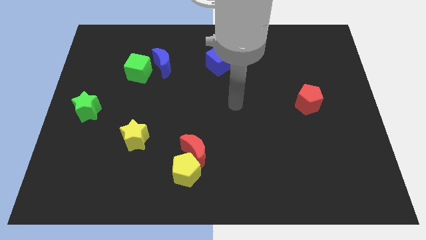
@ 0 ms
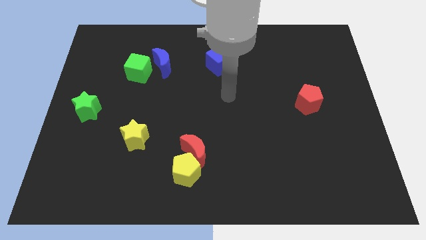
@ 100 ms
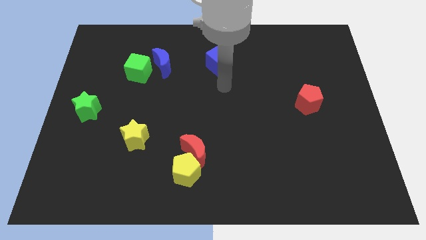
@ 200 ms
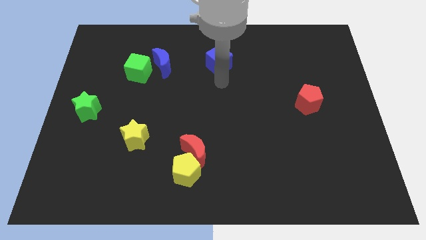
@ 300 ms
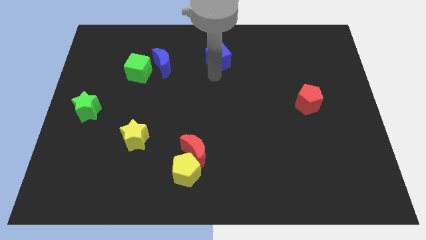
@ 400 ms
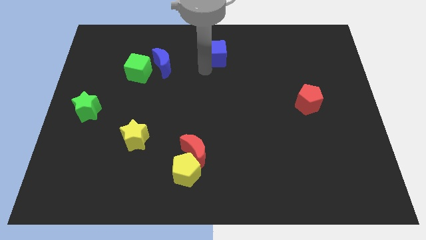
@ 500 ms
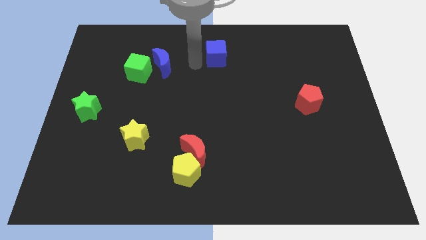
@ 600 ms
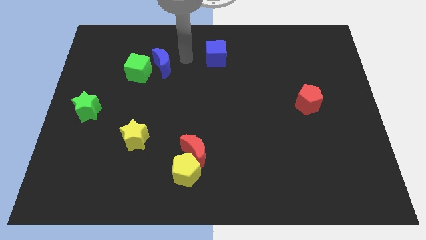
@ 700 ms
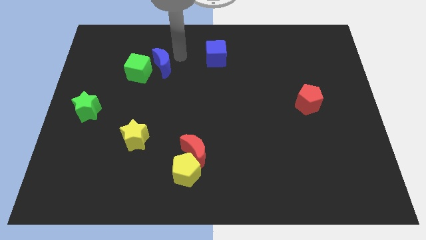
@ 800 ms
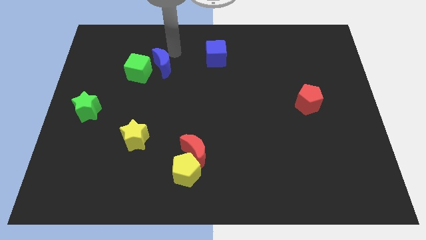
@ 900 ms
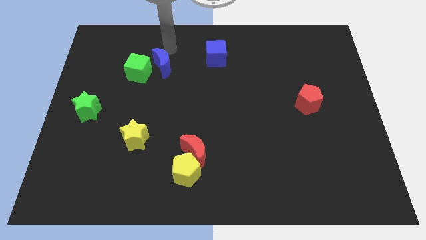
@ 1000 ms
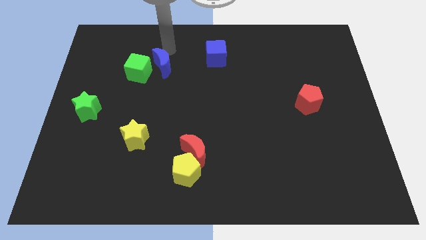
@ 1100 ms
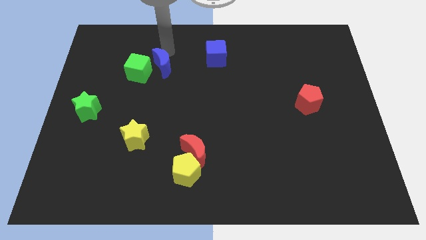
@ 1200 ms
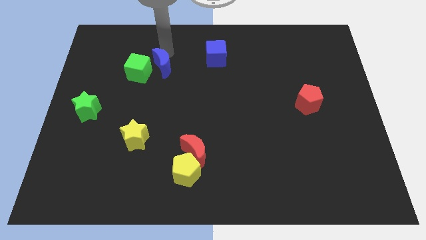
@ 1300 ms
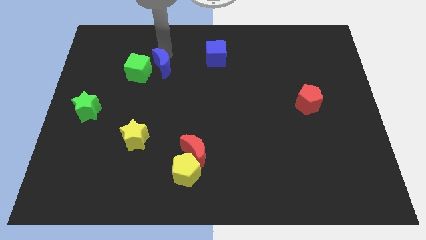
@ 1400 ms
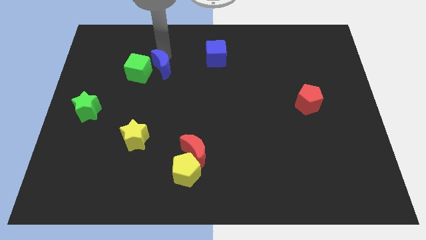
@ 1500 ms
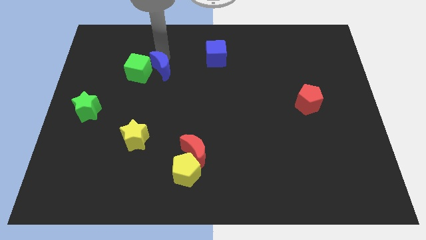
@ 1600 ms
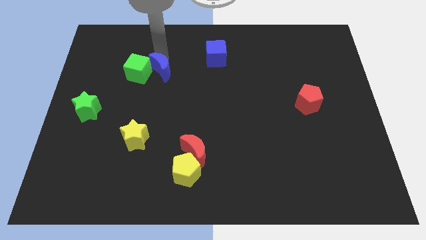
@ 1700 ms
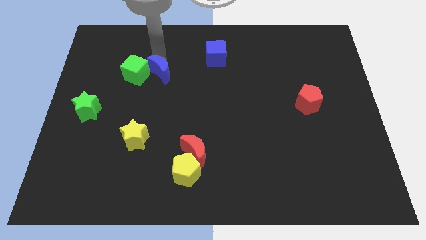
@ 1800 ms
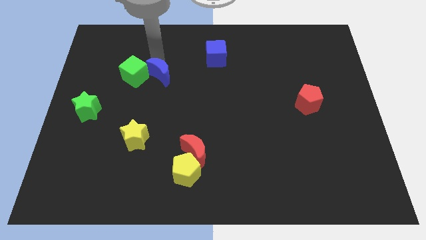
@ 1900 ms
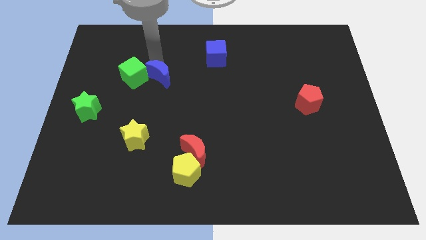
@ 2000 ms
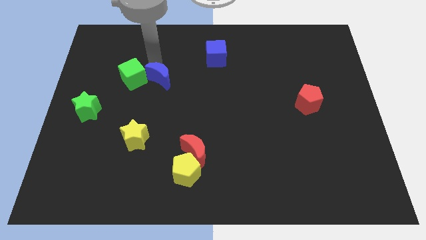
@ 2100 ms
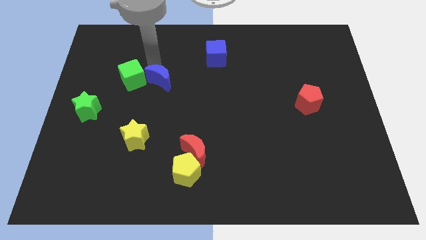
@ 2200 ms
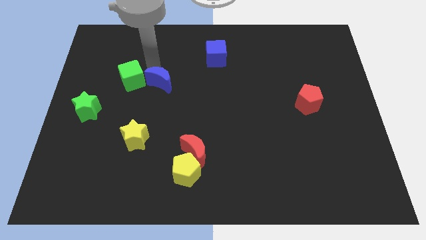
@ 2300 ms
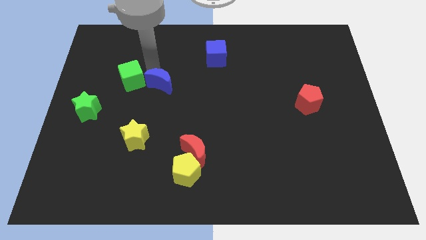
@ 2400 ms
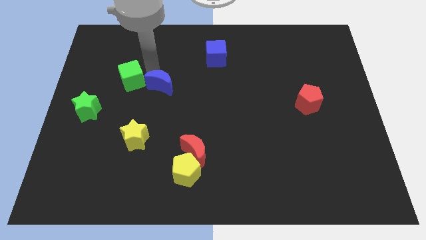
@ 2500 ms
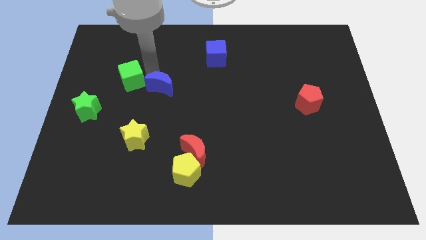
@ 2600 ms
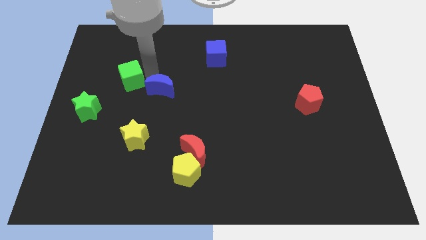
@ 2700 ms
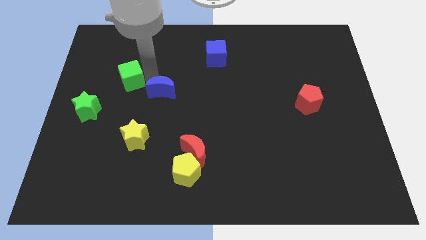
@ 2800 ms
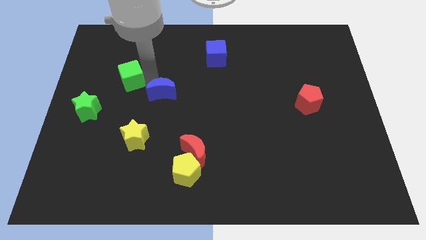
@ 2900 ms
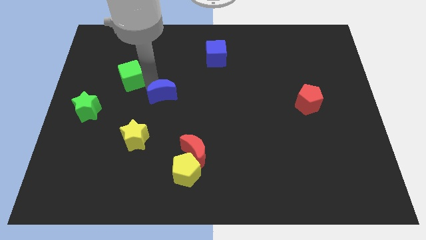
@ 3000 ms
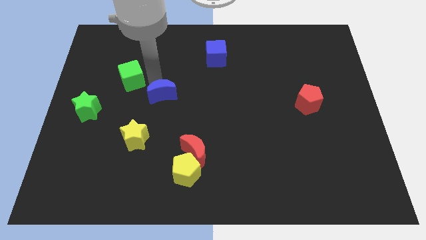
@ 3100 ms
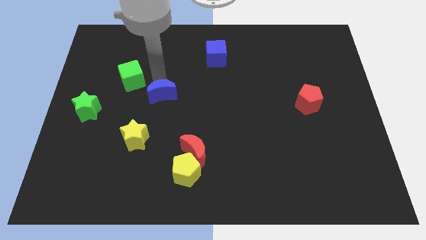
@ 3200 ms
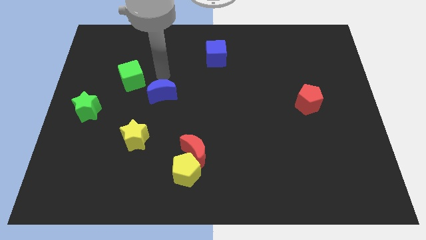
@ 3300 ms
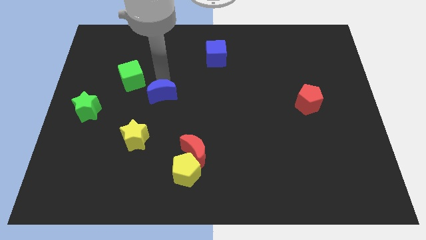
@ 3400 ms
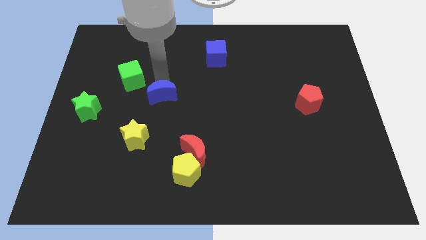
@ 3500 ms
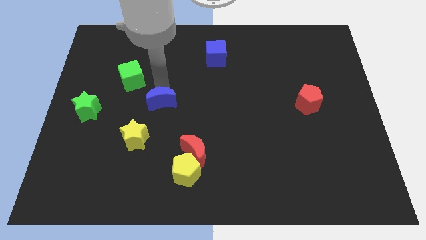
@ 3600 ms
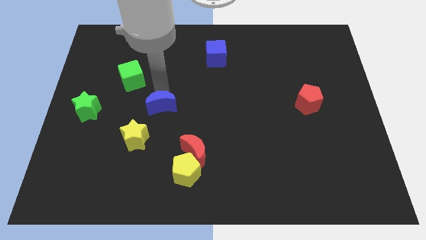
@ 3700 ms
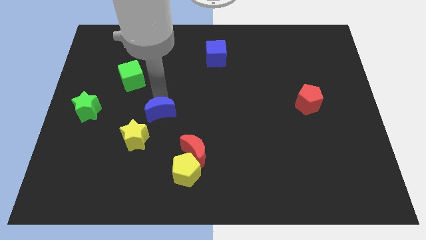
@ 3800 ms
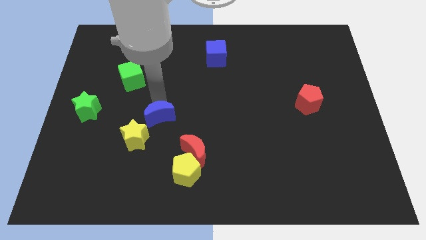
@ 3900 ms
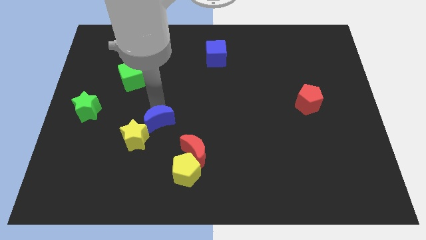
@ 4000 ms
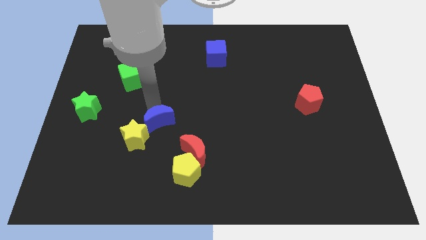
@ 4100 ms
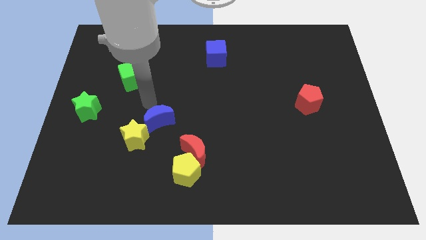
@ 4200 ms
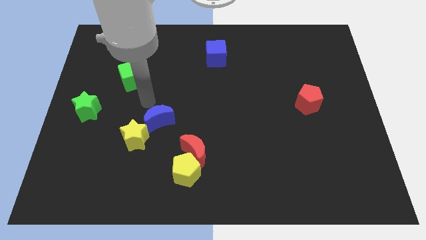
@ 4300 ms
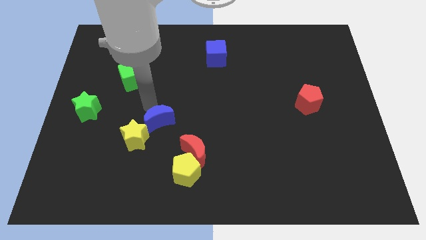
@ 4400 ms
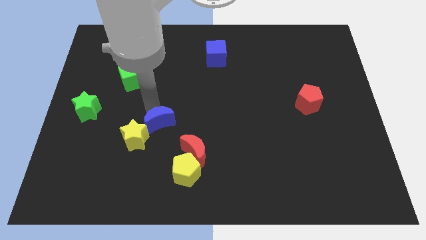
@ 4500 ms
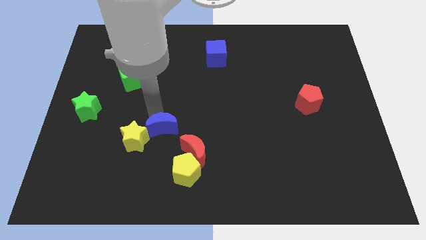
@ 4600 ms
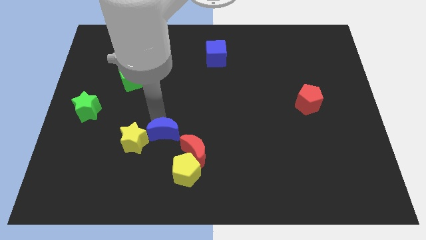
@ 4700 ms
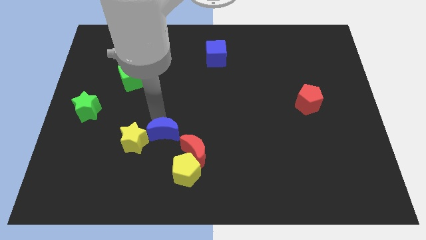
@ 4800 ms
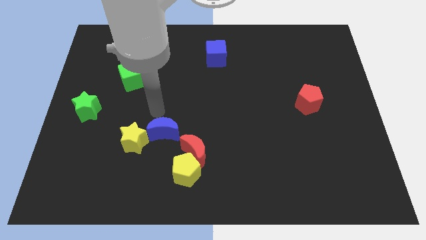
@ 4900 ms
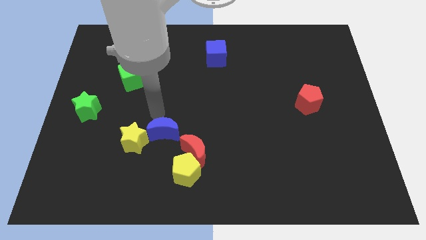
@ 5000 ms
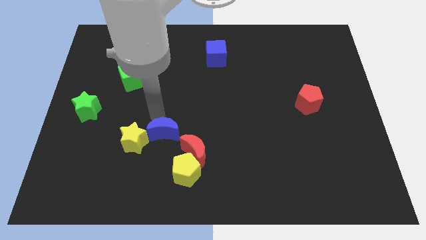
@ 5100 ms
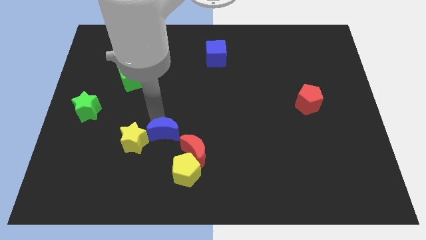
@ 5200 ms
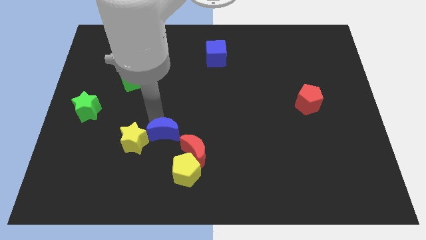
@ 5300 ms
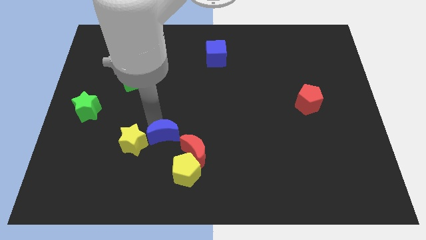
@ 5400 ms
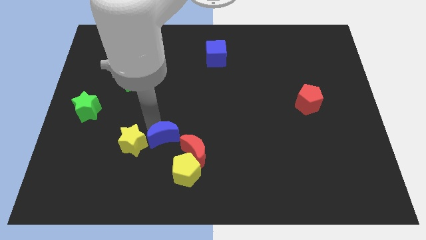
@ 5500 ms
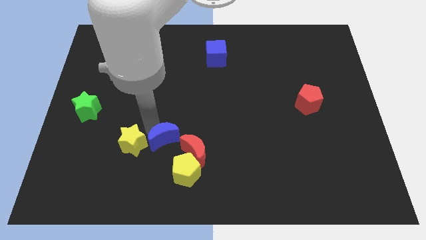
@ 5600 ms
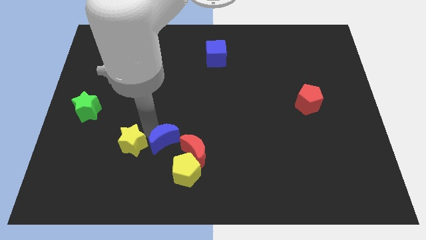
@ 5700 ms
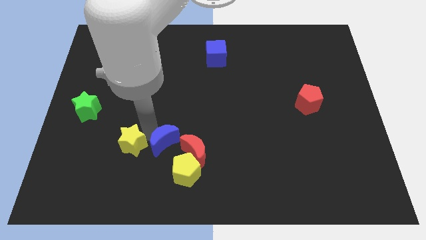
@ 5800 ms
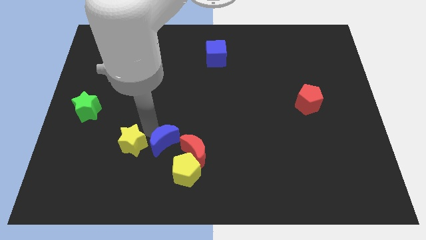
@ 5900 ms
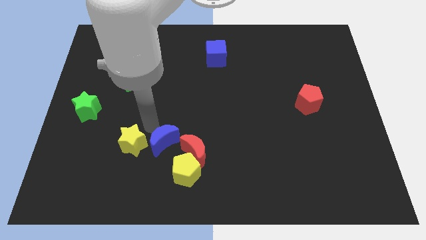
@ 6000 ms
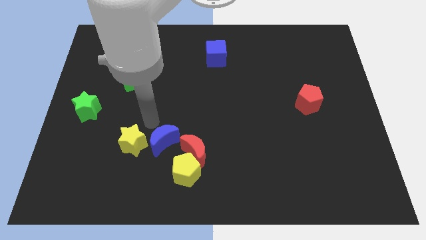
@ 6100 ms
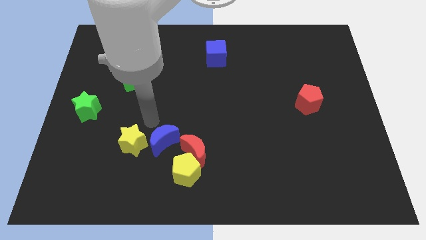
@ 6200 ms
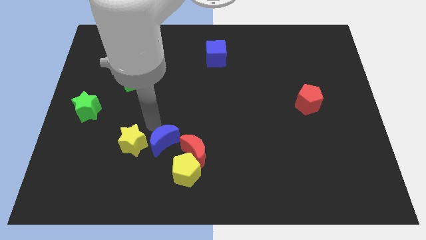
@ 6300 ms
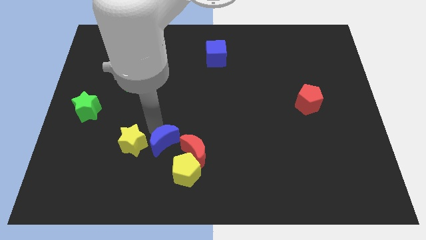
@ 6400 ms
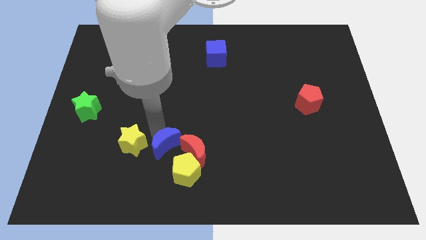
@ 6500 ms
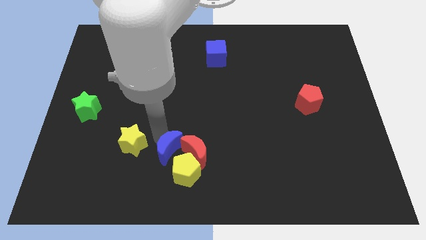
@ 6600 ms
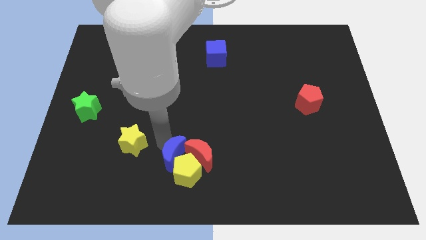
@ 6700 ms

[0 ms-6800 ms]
move the blue moon towards the yellow pentagon
